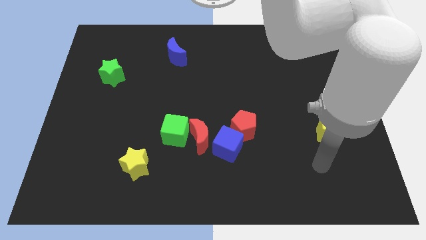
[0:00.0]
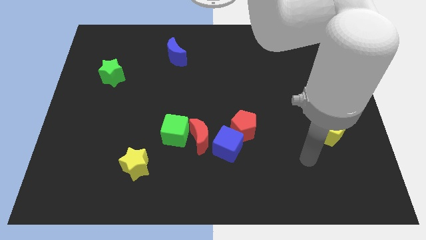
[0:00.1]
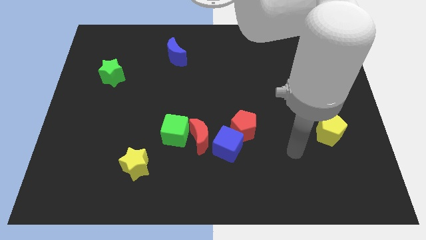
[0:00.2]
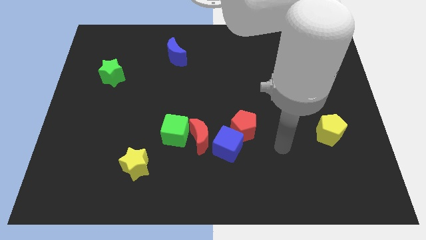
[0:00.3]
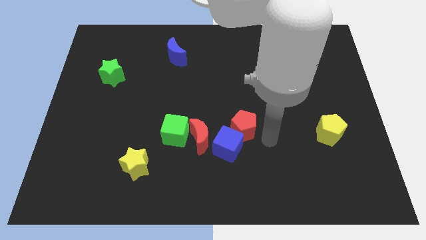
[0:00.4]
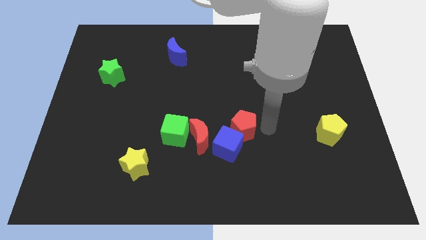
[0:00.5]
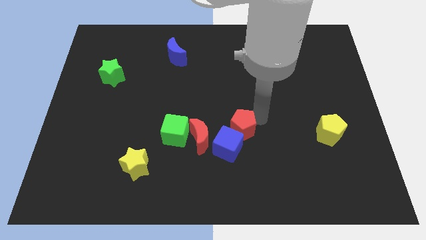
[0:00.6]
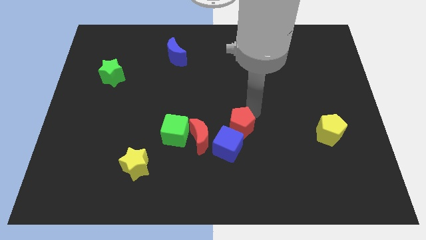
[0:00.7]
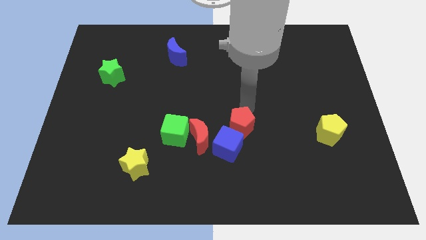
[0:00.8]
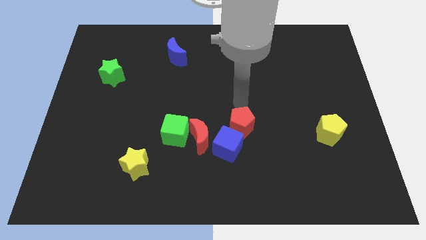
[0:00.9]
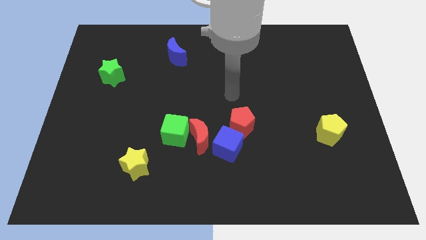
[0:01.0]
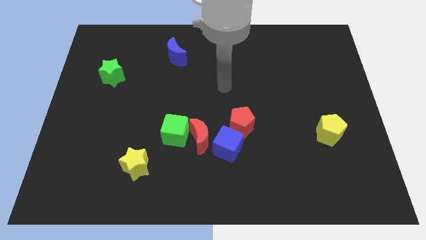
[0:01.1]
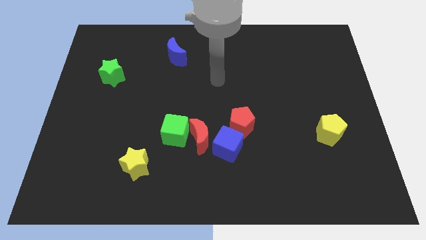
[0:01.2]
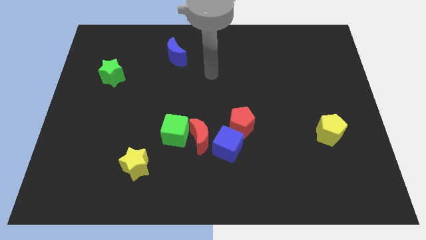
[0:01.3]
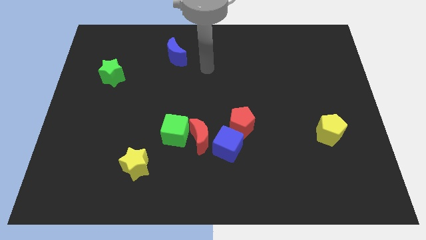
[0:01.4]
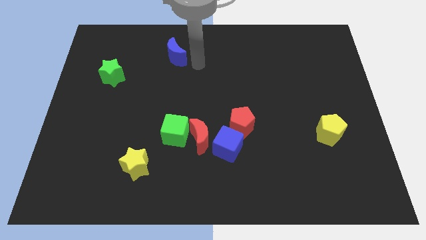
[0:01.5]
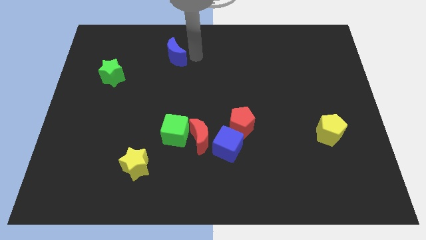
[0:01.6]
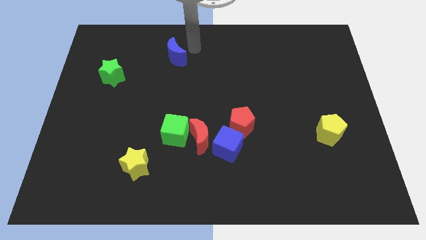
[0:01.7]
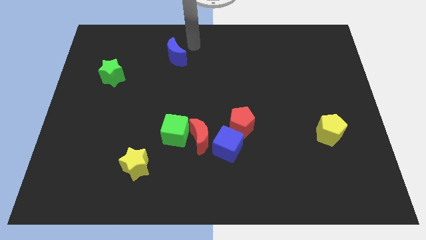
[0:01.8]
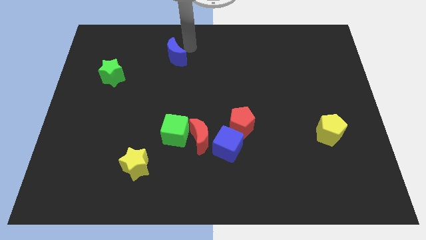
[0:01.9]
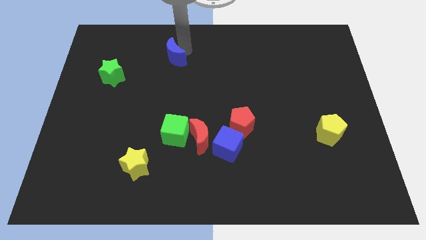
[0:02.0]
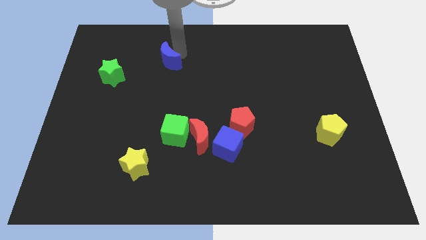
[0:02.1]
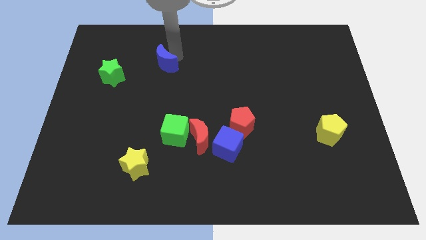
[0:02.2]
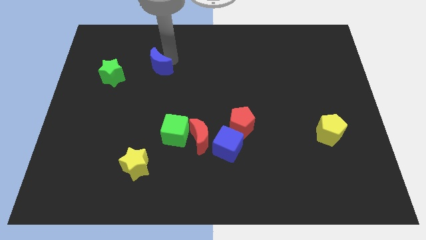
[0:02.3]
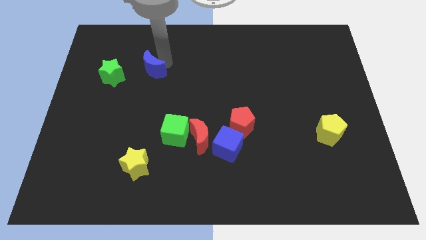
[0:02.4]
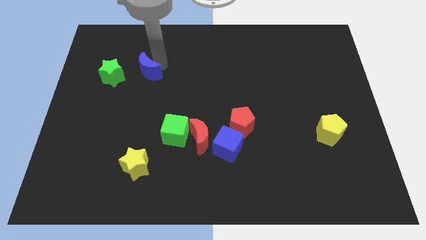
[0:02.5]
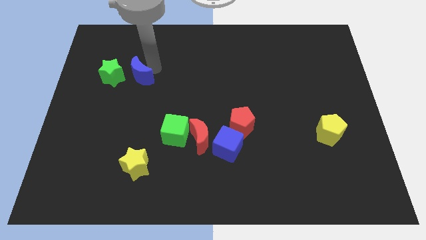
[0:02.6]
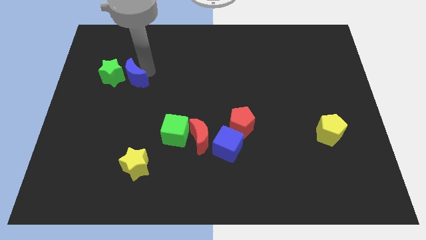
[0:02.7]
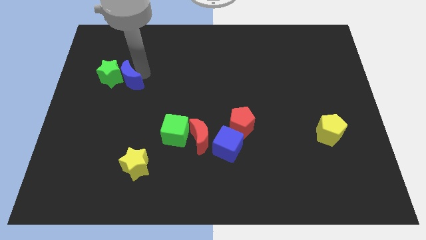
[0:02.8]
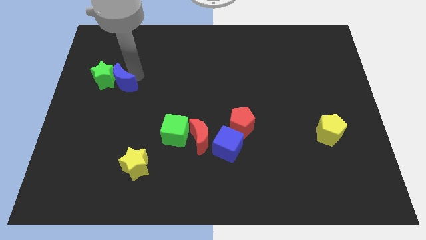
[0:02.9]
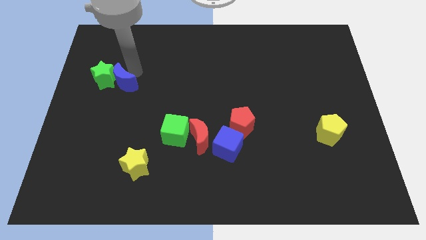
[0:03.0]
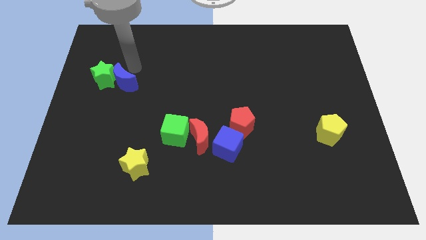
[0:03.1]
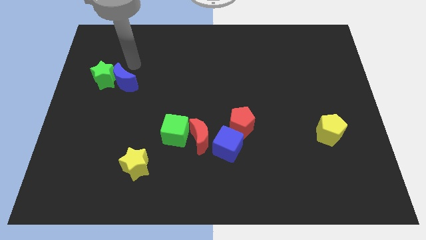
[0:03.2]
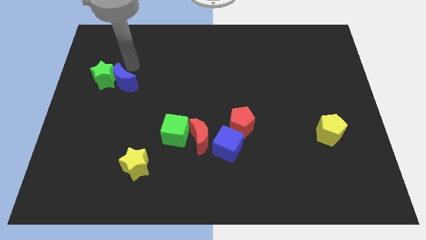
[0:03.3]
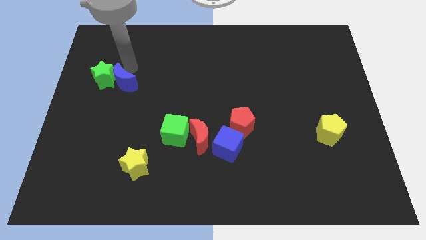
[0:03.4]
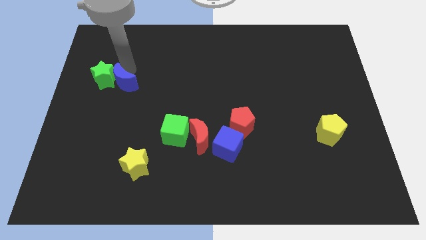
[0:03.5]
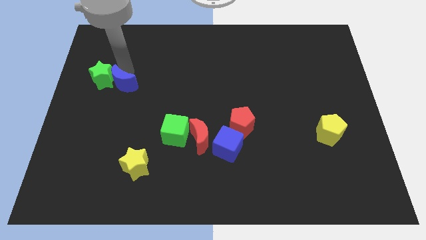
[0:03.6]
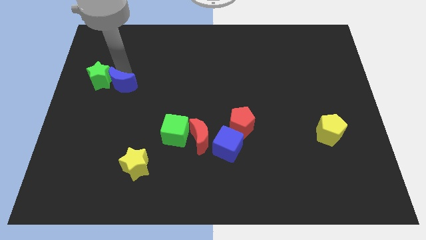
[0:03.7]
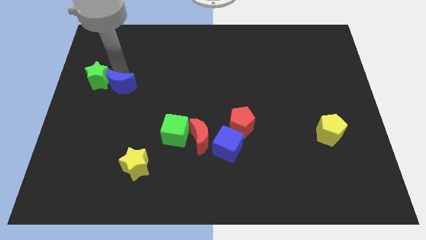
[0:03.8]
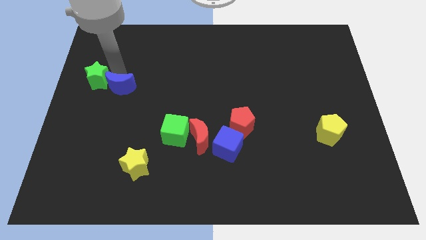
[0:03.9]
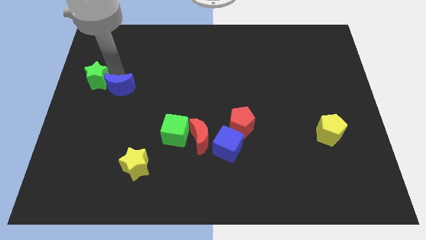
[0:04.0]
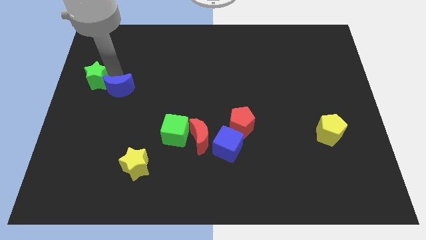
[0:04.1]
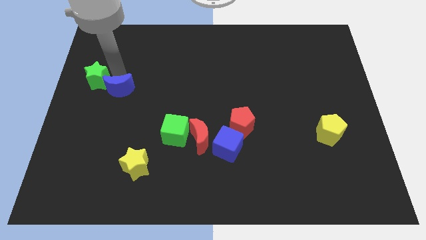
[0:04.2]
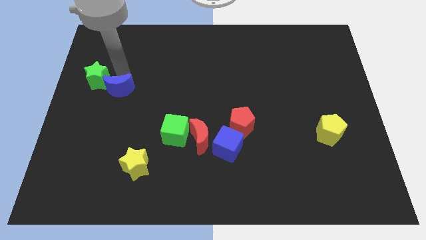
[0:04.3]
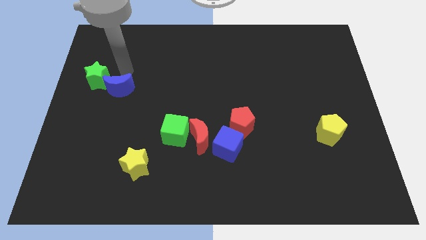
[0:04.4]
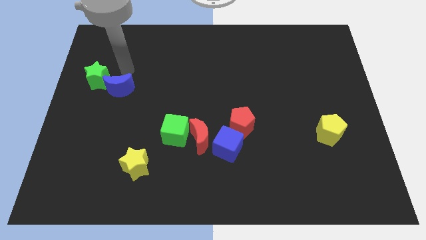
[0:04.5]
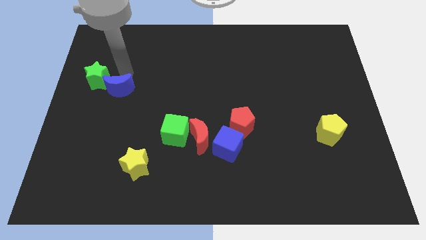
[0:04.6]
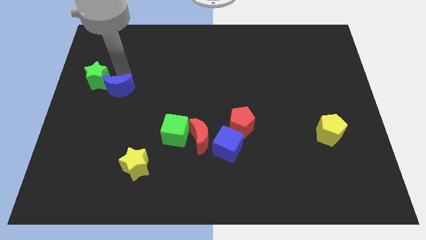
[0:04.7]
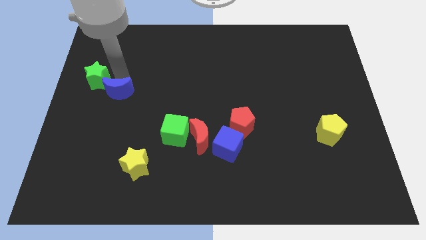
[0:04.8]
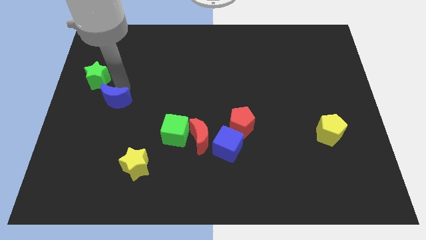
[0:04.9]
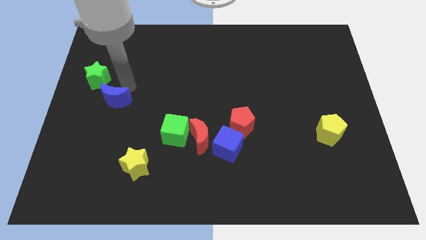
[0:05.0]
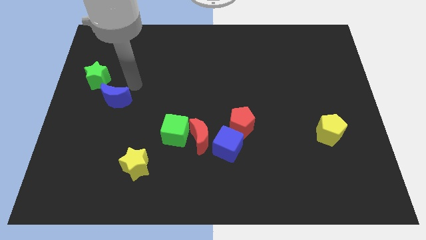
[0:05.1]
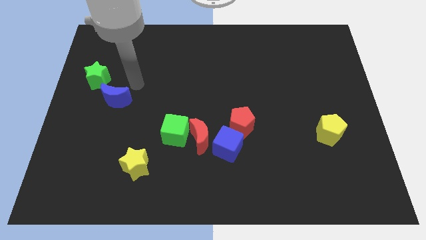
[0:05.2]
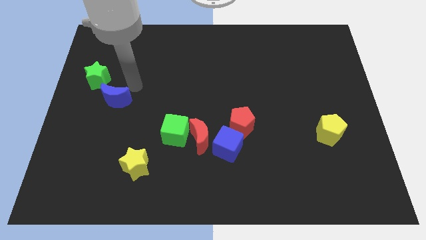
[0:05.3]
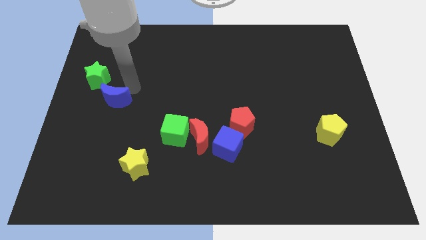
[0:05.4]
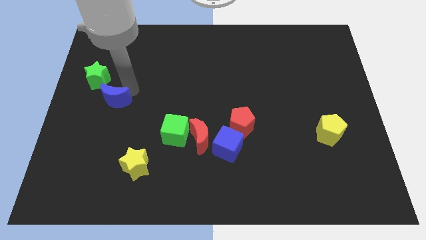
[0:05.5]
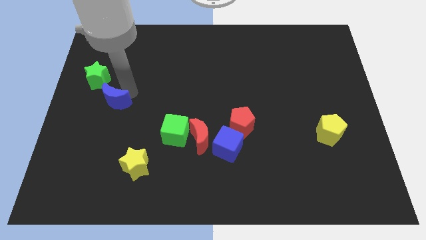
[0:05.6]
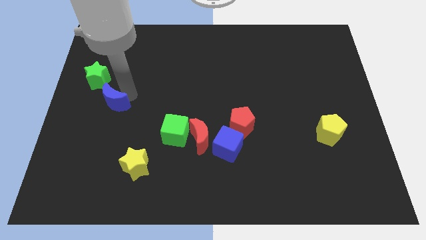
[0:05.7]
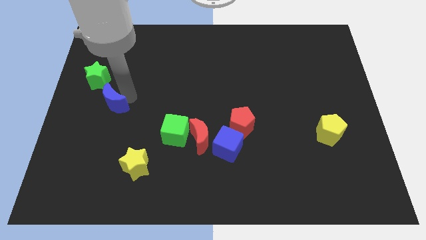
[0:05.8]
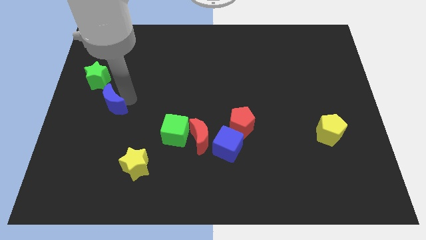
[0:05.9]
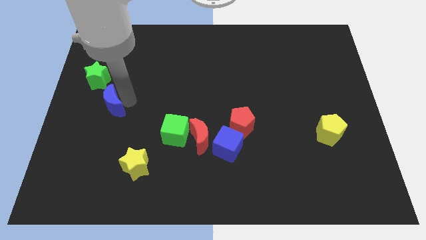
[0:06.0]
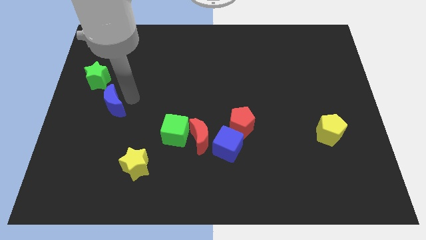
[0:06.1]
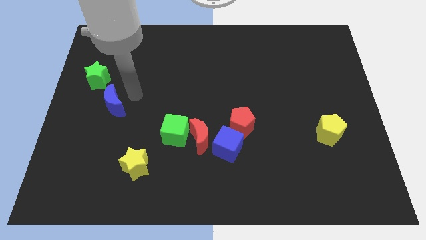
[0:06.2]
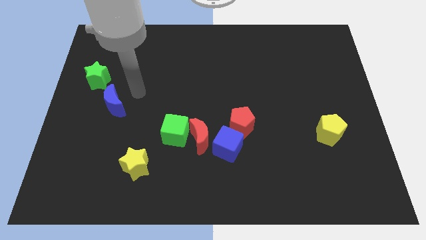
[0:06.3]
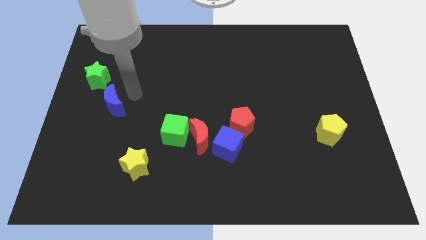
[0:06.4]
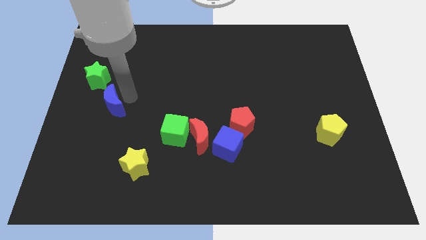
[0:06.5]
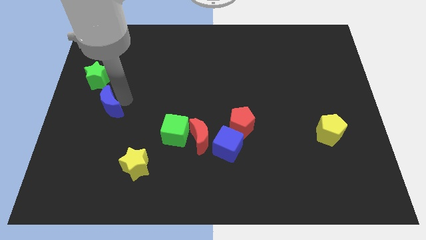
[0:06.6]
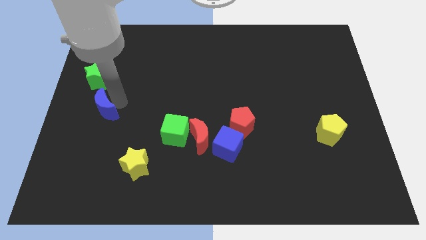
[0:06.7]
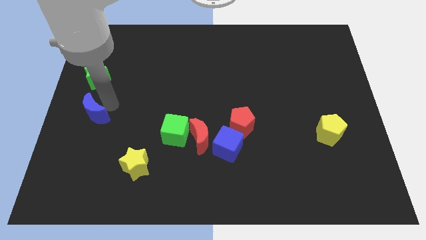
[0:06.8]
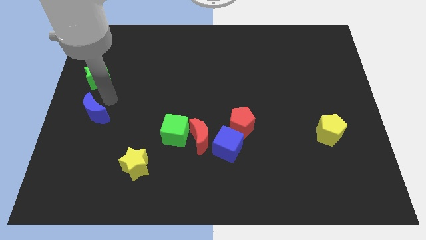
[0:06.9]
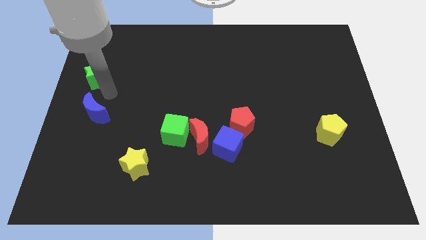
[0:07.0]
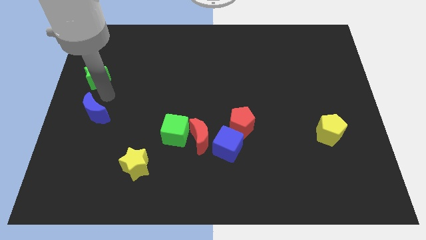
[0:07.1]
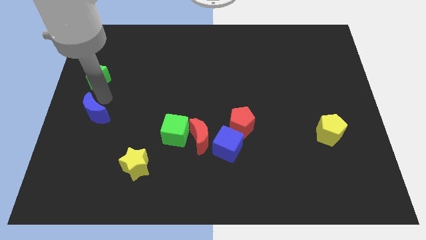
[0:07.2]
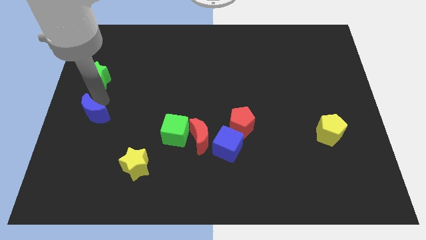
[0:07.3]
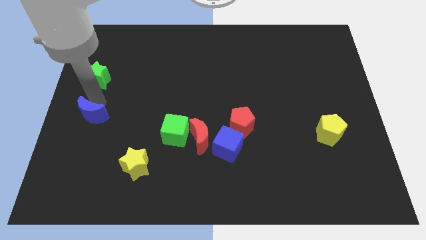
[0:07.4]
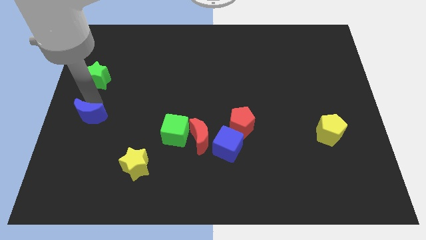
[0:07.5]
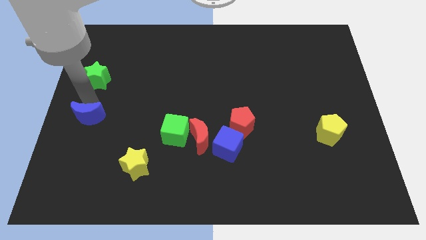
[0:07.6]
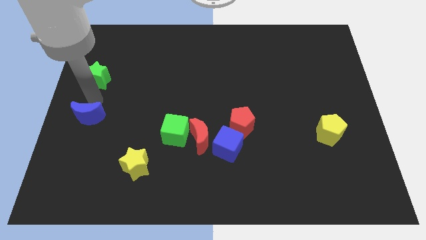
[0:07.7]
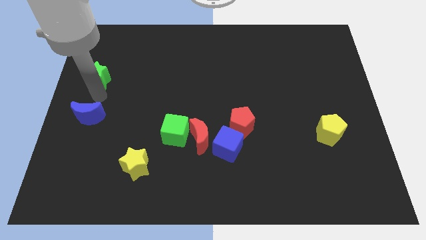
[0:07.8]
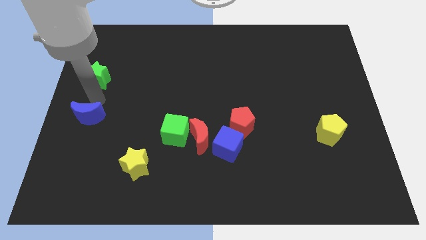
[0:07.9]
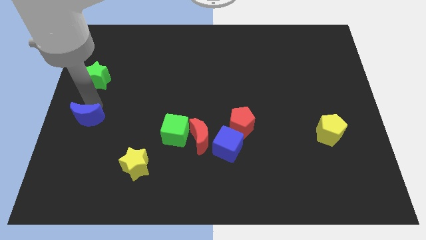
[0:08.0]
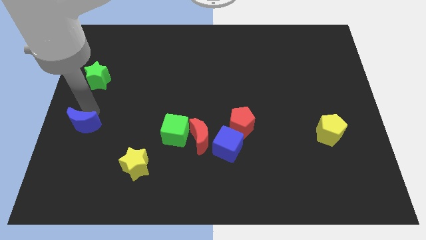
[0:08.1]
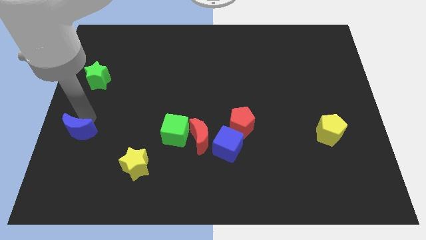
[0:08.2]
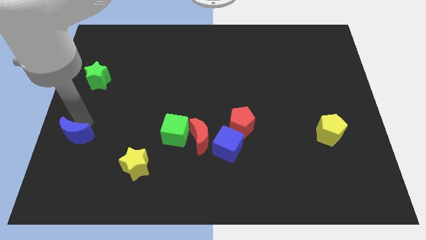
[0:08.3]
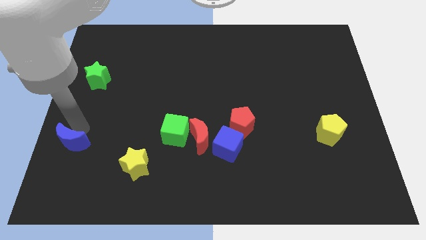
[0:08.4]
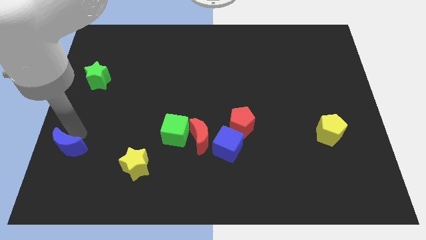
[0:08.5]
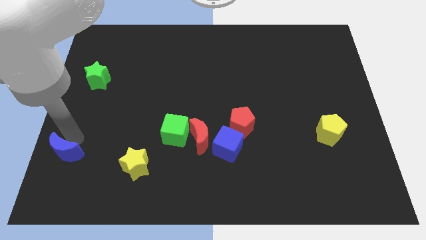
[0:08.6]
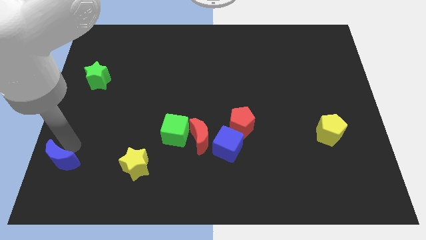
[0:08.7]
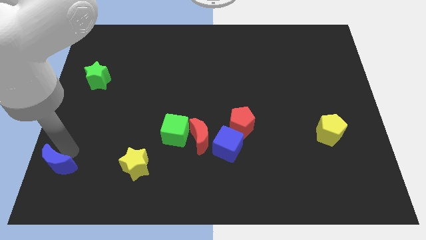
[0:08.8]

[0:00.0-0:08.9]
push the blue moon to the bottom left corner
